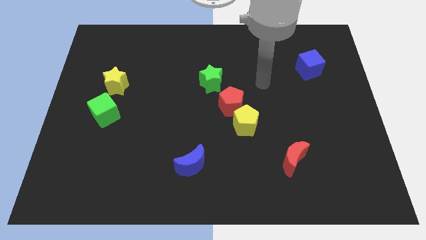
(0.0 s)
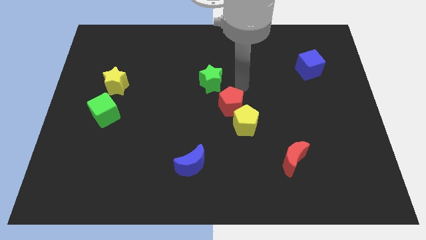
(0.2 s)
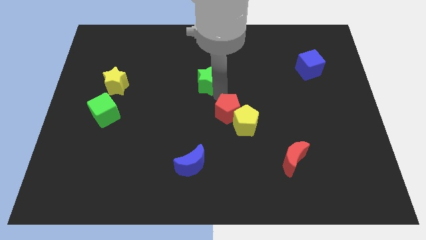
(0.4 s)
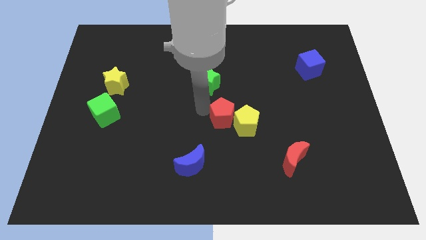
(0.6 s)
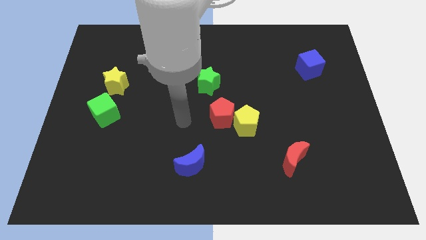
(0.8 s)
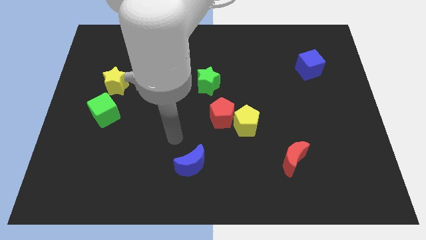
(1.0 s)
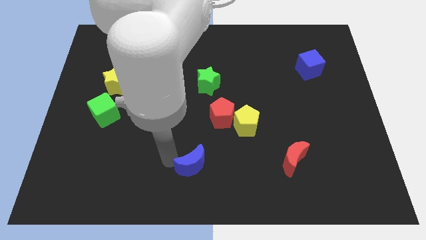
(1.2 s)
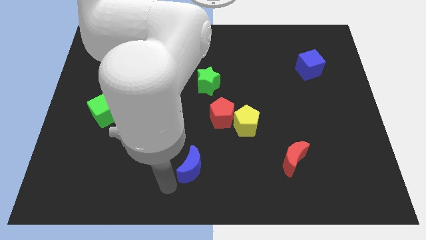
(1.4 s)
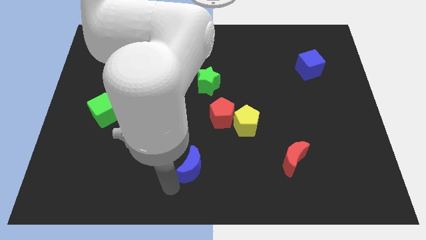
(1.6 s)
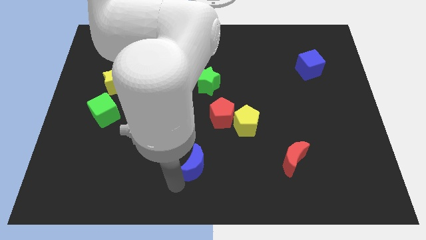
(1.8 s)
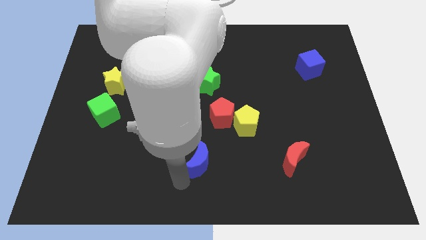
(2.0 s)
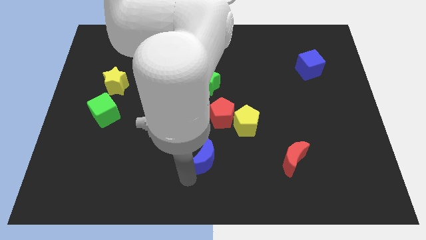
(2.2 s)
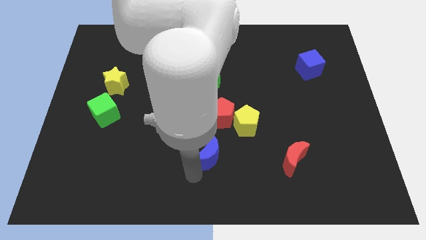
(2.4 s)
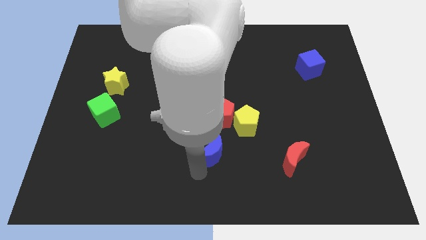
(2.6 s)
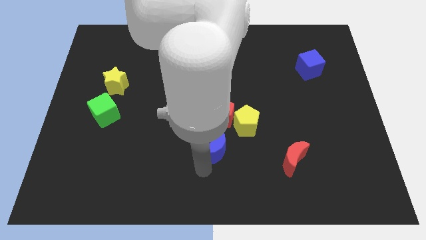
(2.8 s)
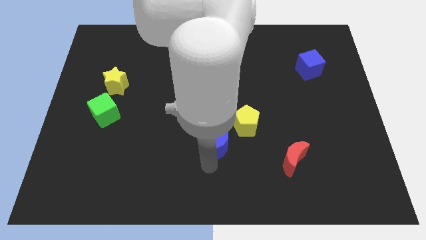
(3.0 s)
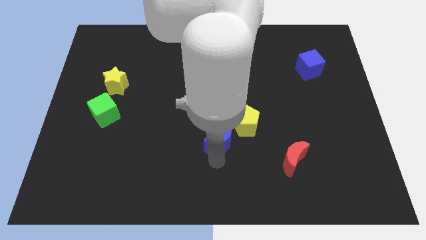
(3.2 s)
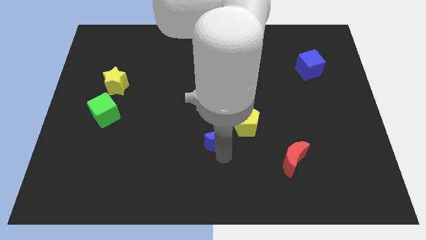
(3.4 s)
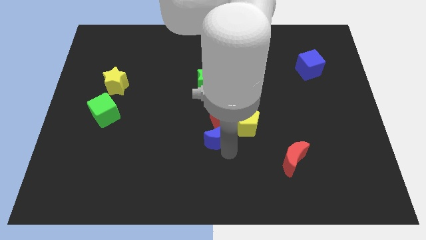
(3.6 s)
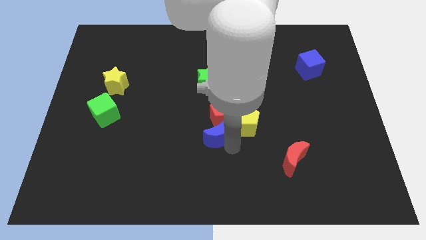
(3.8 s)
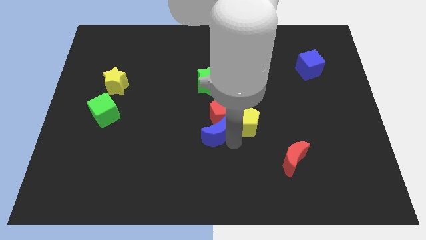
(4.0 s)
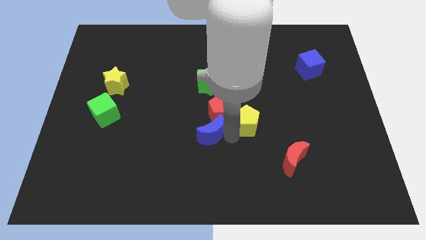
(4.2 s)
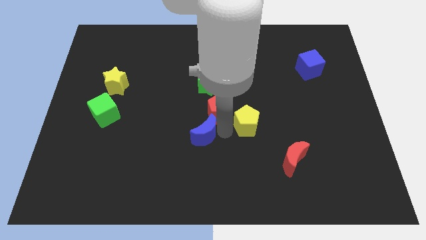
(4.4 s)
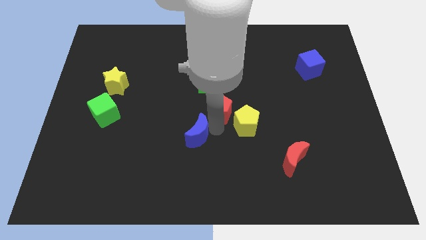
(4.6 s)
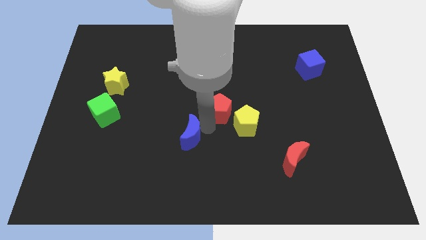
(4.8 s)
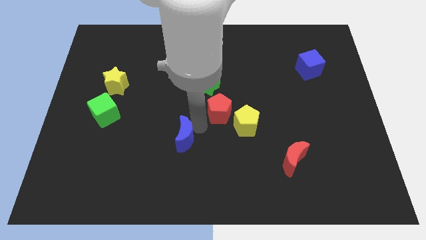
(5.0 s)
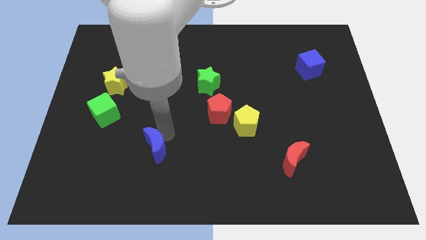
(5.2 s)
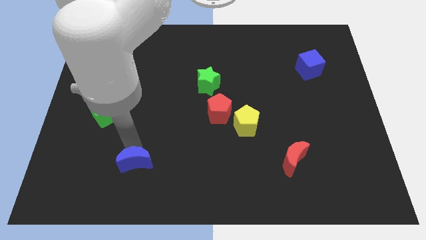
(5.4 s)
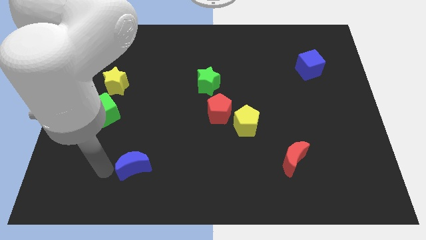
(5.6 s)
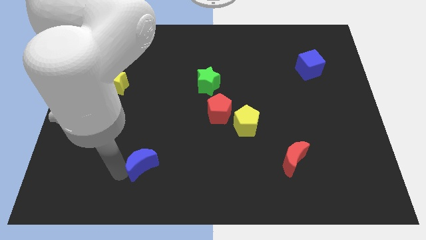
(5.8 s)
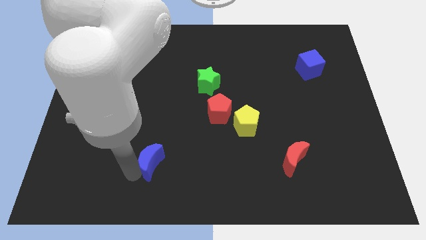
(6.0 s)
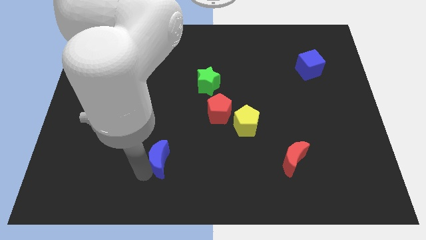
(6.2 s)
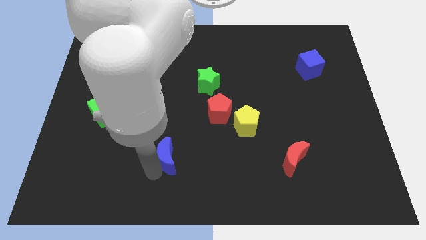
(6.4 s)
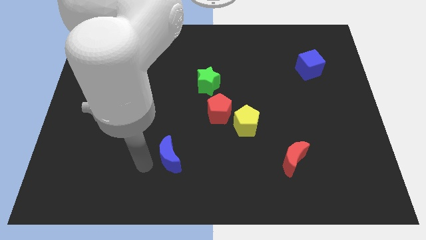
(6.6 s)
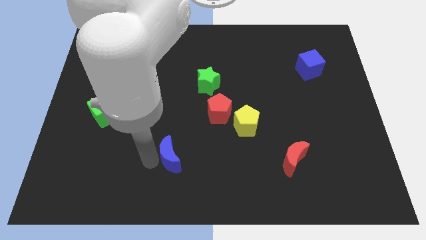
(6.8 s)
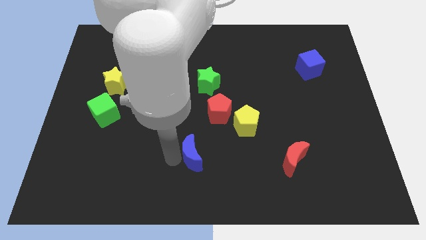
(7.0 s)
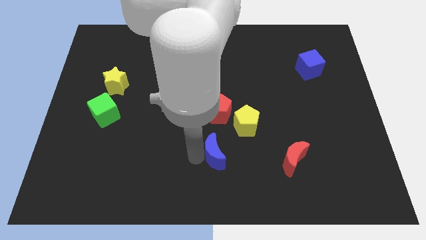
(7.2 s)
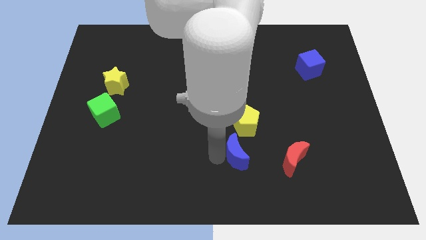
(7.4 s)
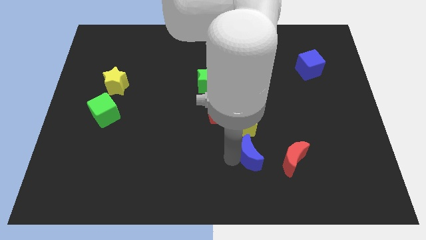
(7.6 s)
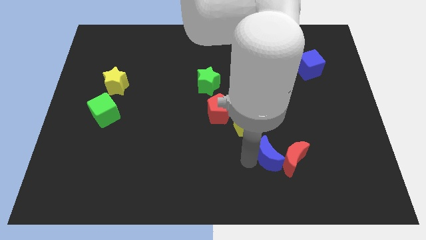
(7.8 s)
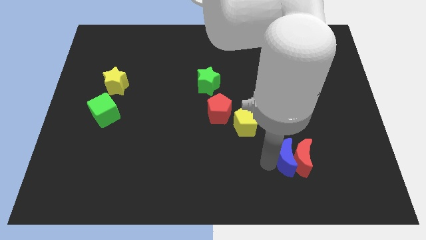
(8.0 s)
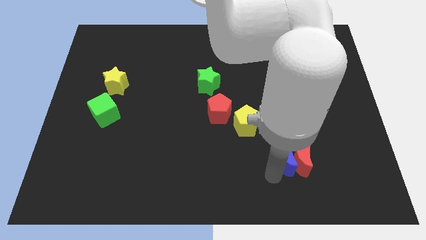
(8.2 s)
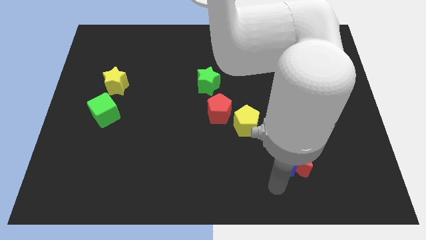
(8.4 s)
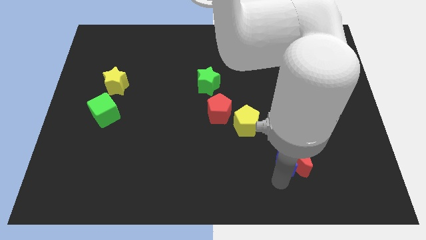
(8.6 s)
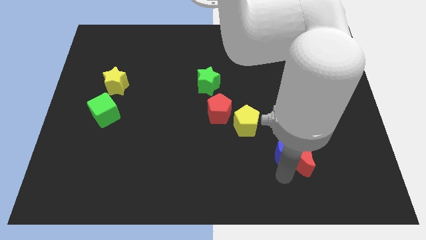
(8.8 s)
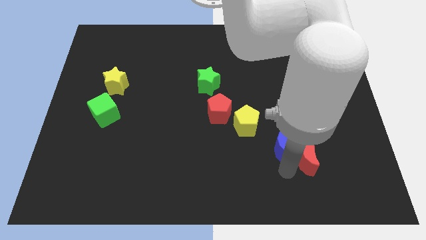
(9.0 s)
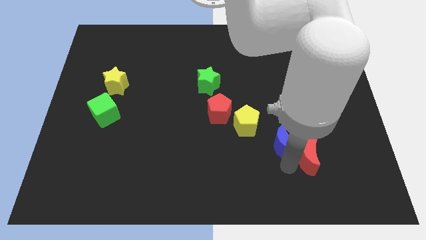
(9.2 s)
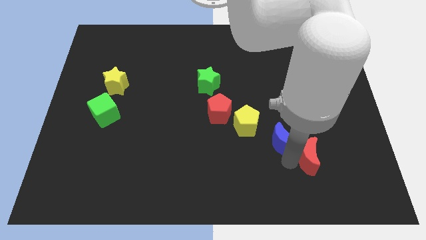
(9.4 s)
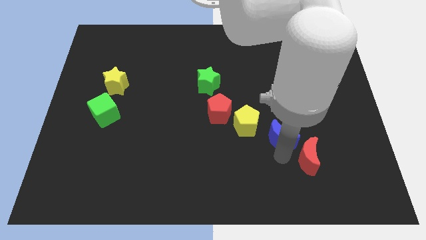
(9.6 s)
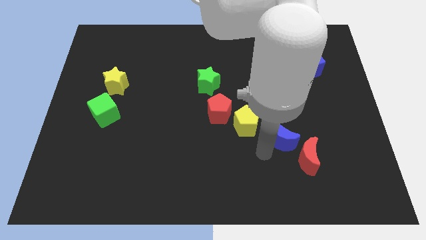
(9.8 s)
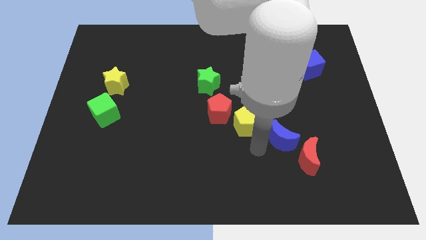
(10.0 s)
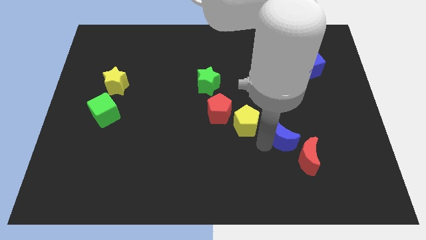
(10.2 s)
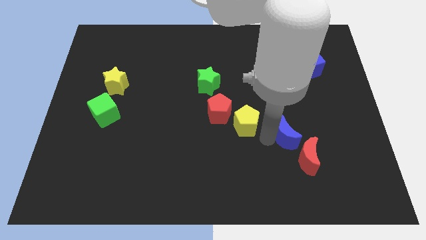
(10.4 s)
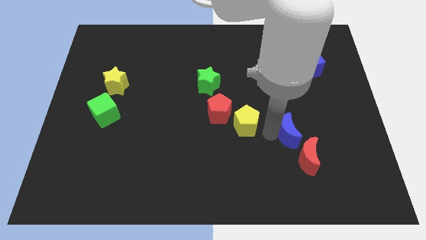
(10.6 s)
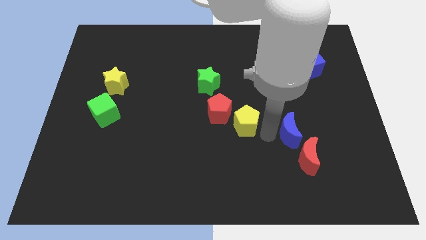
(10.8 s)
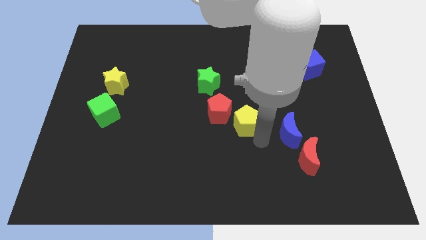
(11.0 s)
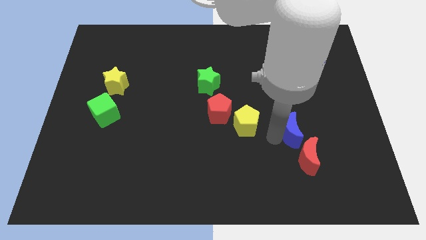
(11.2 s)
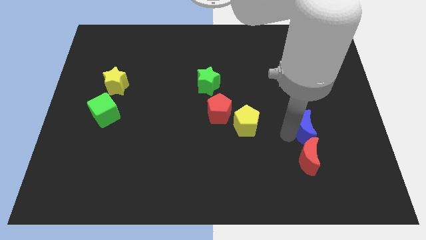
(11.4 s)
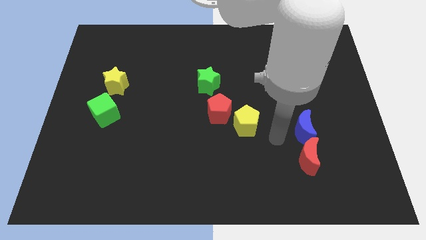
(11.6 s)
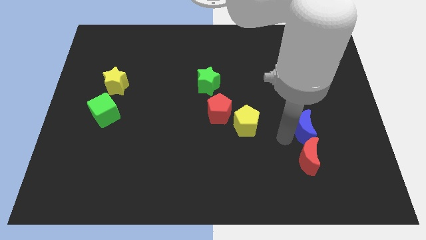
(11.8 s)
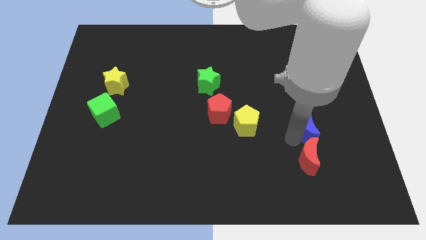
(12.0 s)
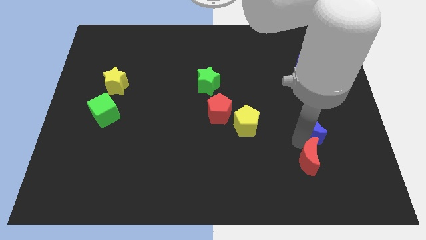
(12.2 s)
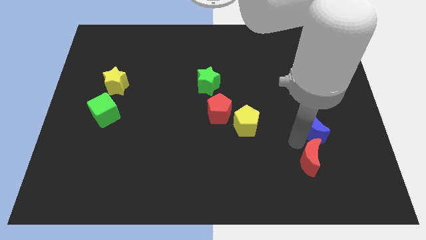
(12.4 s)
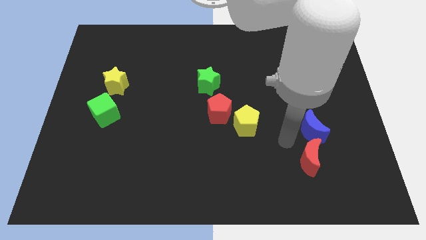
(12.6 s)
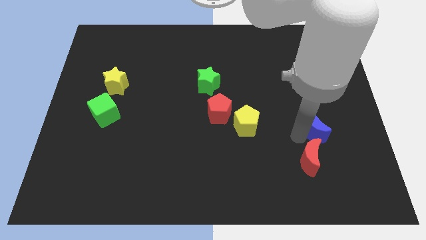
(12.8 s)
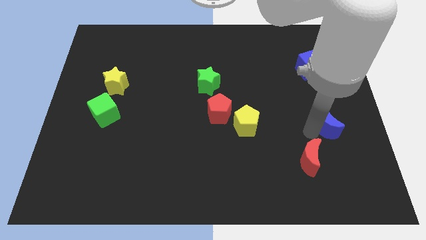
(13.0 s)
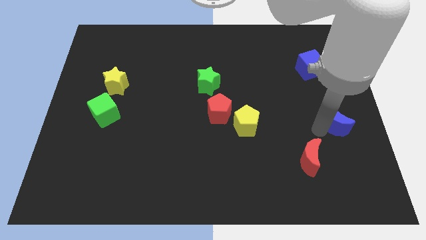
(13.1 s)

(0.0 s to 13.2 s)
put the blue moon to the center right

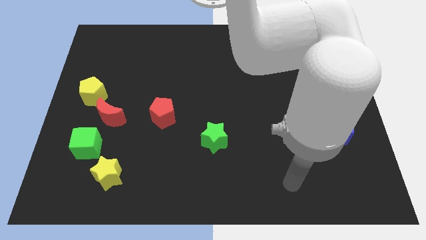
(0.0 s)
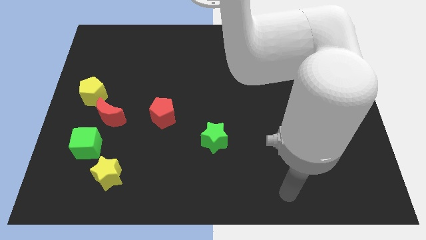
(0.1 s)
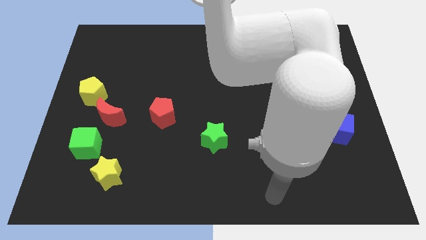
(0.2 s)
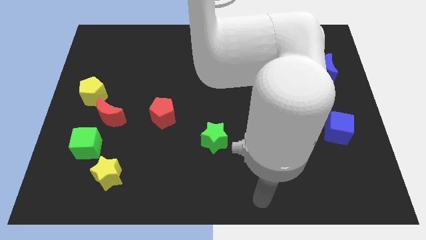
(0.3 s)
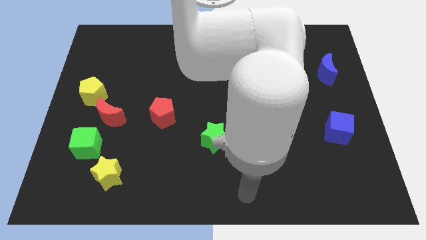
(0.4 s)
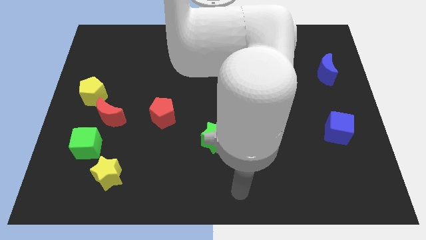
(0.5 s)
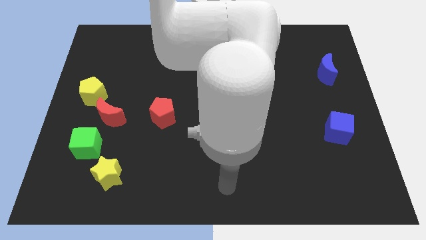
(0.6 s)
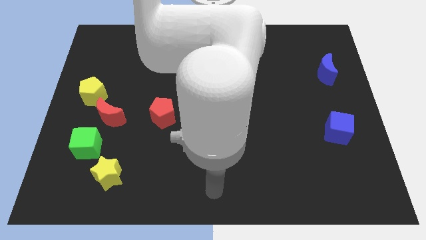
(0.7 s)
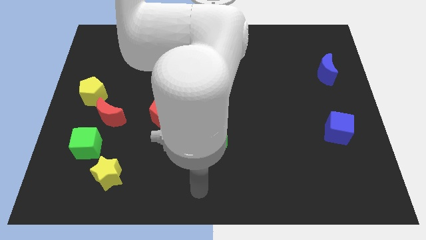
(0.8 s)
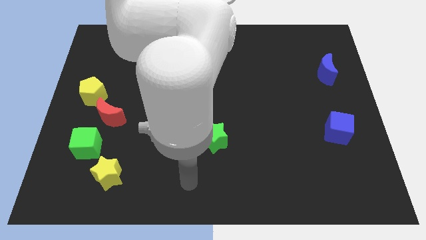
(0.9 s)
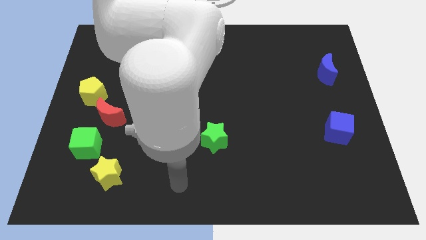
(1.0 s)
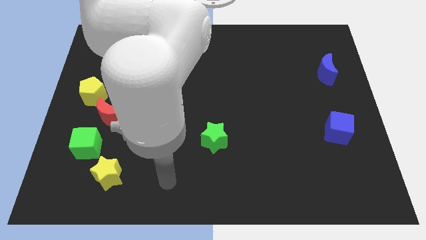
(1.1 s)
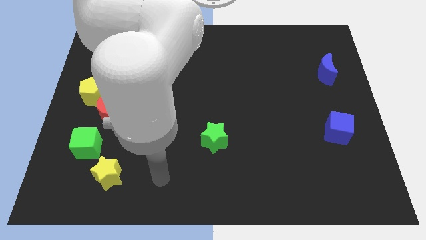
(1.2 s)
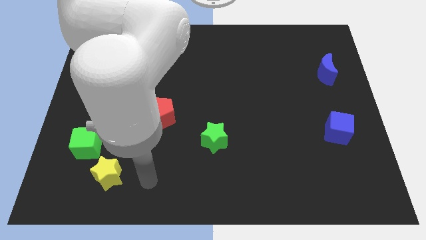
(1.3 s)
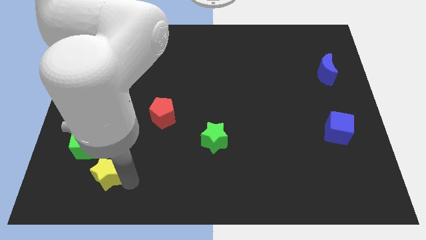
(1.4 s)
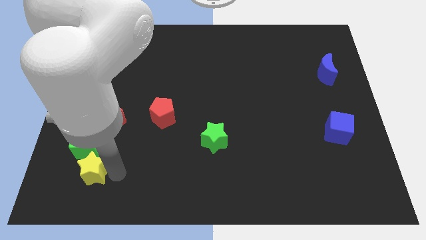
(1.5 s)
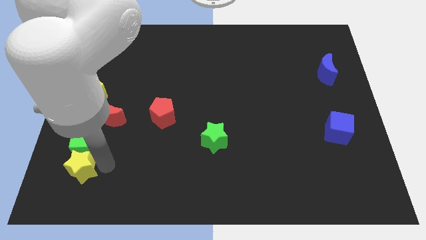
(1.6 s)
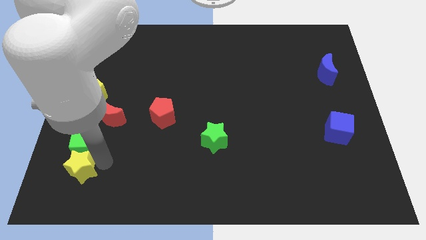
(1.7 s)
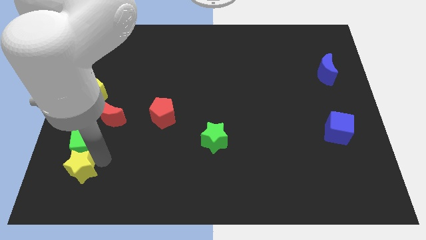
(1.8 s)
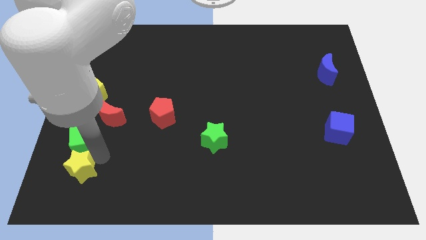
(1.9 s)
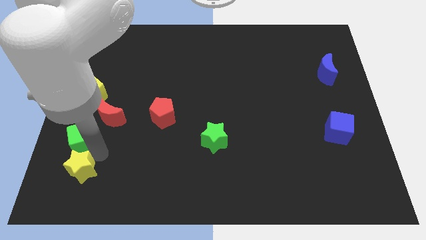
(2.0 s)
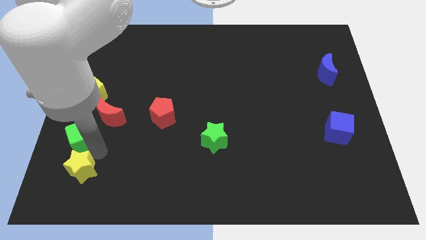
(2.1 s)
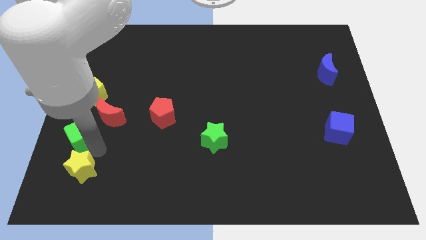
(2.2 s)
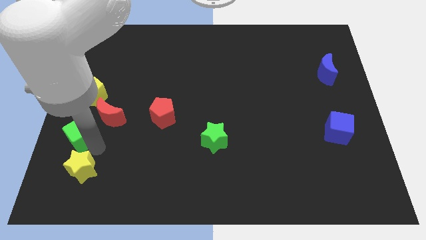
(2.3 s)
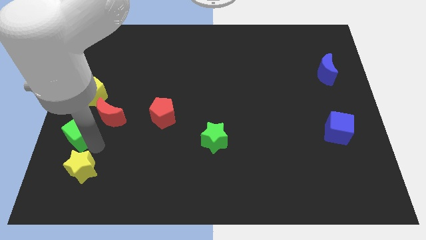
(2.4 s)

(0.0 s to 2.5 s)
slide the green cube to the center left
